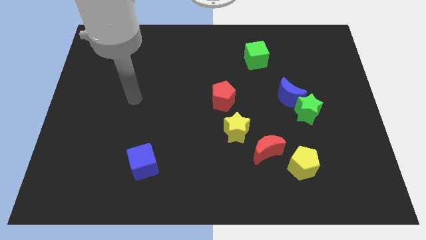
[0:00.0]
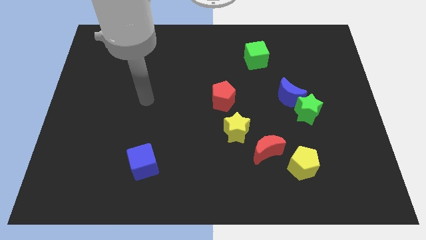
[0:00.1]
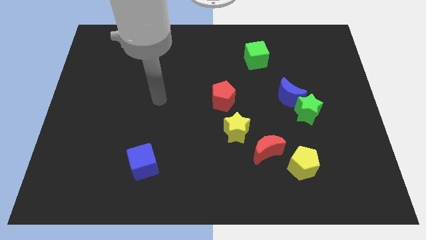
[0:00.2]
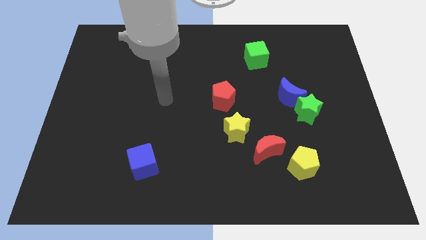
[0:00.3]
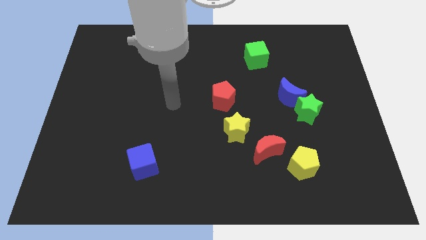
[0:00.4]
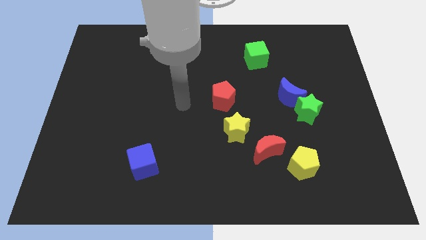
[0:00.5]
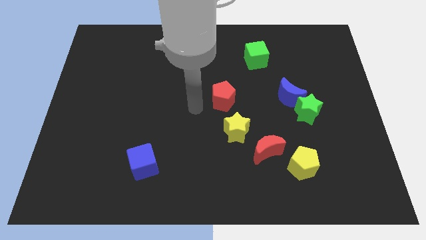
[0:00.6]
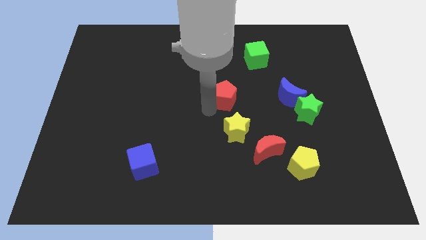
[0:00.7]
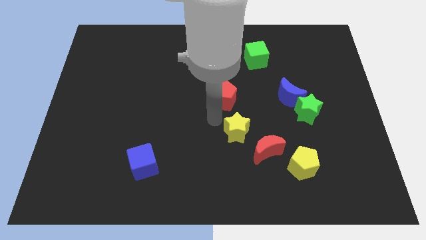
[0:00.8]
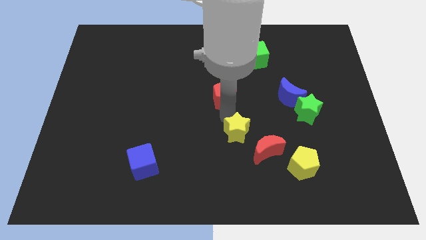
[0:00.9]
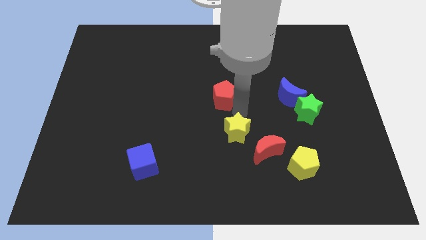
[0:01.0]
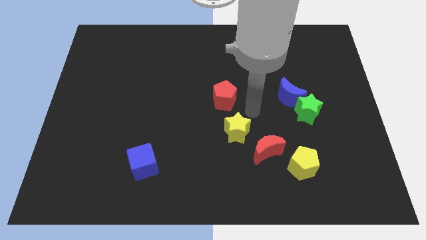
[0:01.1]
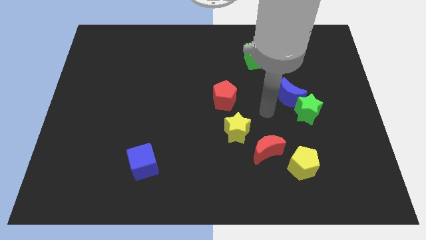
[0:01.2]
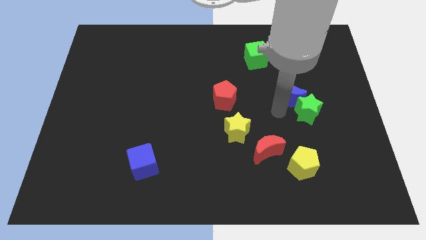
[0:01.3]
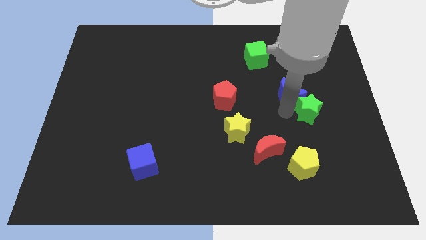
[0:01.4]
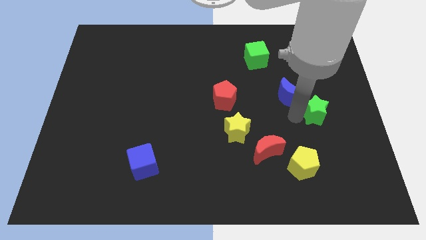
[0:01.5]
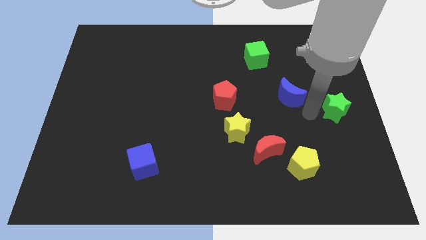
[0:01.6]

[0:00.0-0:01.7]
separate the blue moon from the green star

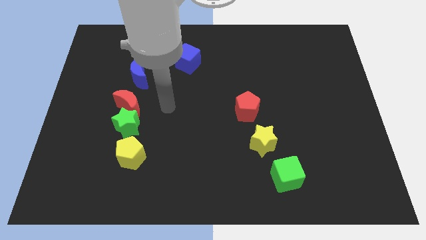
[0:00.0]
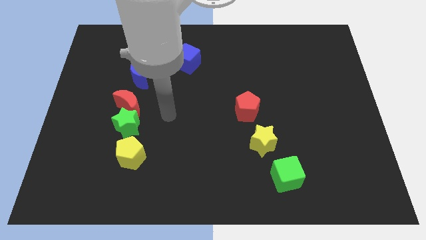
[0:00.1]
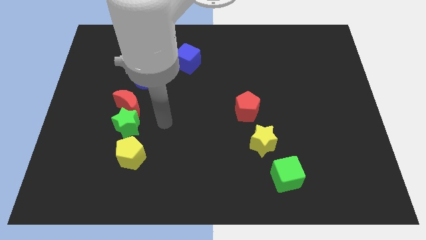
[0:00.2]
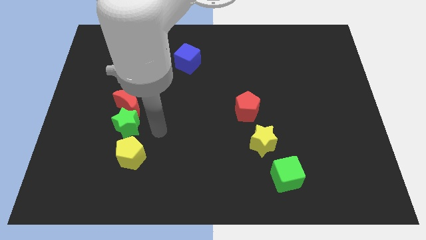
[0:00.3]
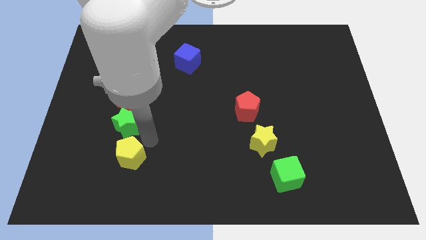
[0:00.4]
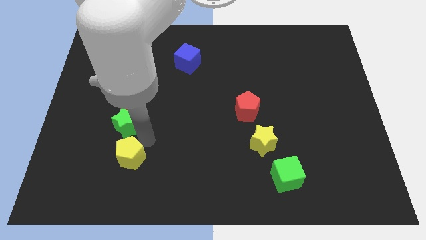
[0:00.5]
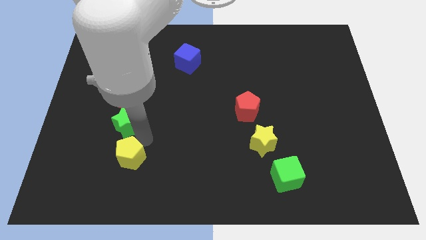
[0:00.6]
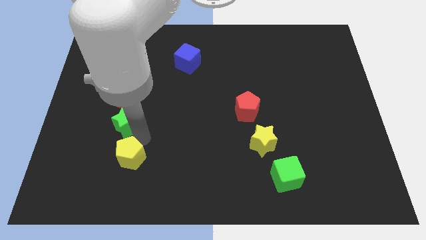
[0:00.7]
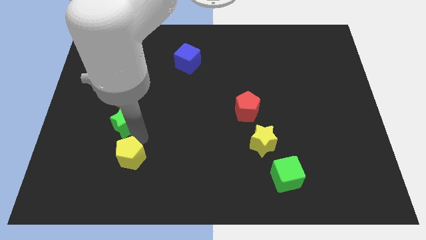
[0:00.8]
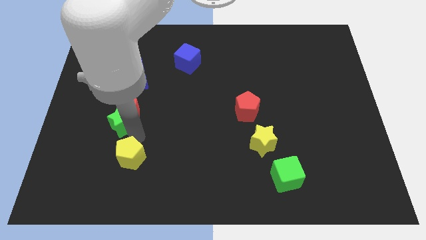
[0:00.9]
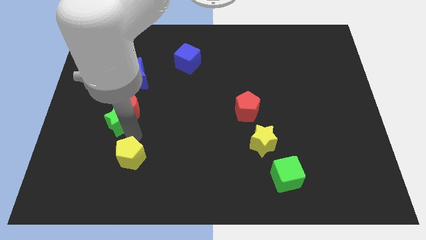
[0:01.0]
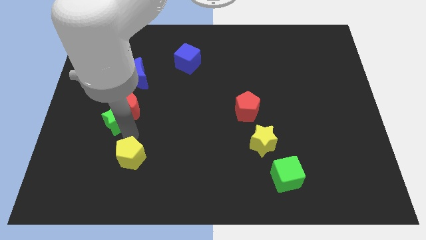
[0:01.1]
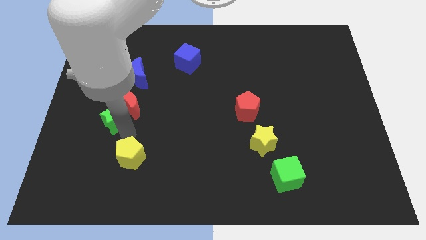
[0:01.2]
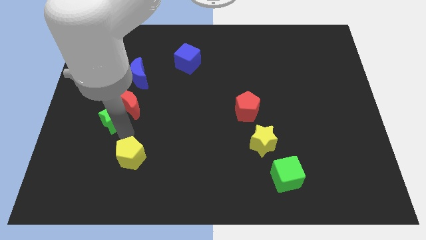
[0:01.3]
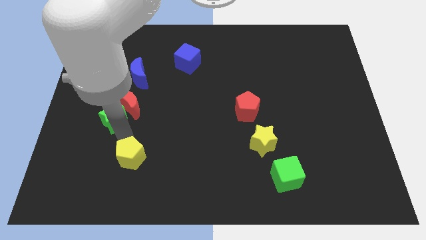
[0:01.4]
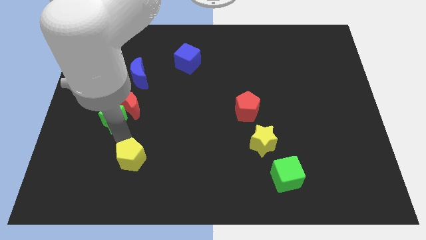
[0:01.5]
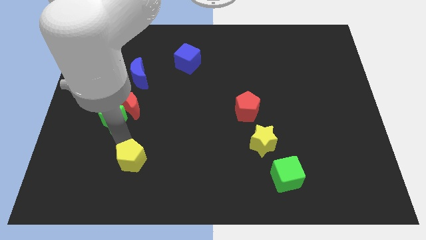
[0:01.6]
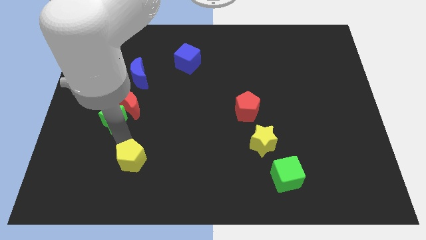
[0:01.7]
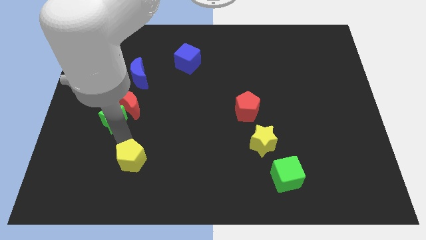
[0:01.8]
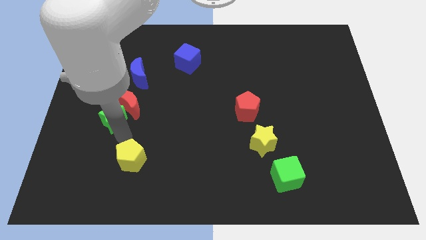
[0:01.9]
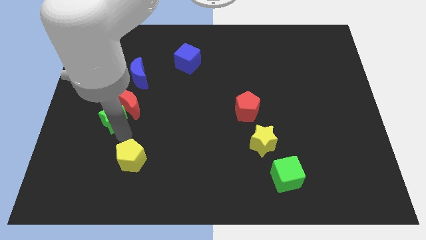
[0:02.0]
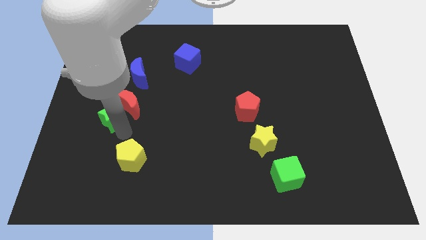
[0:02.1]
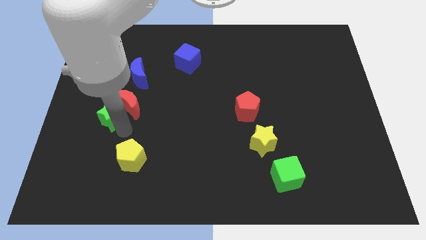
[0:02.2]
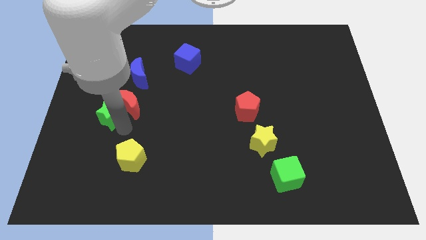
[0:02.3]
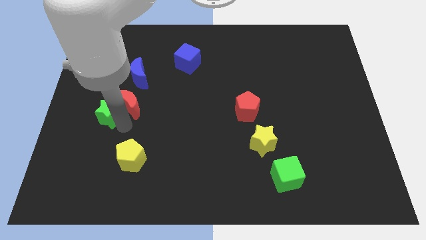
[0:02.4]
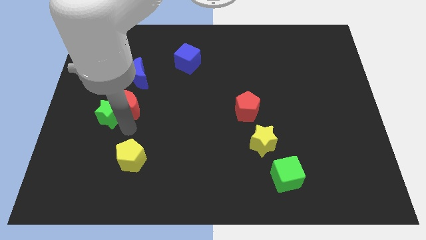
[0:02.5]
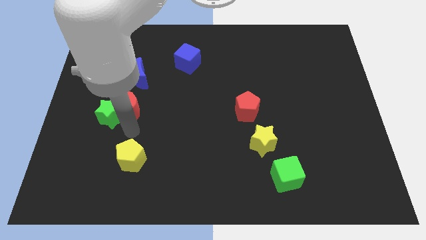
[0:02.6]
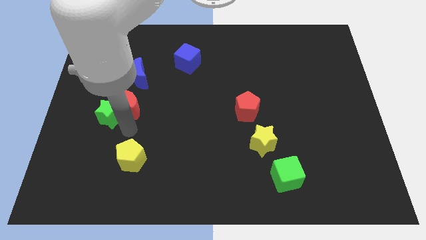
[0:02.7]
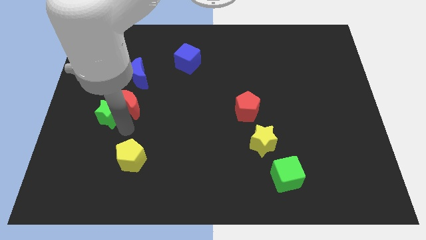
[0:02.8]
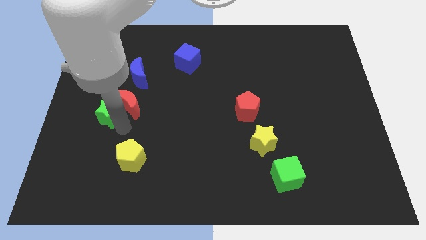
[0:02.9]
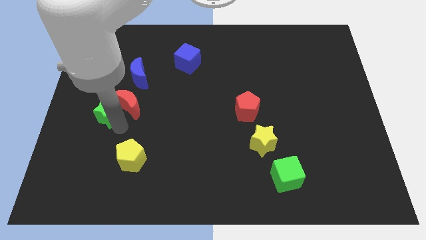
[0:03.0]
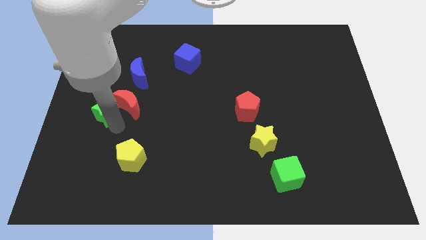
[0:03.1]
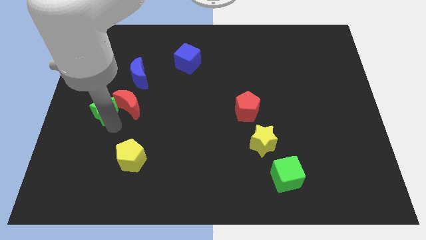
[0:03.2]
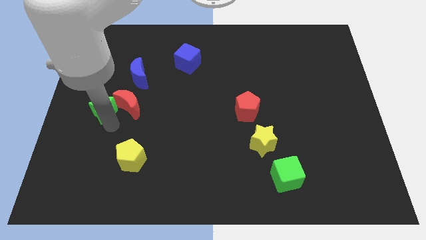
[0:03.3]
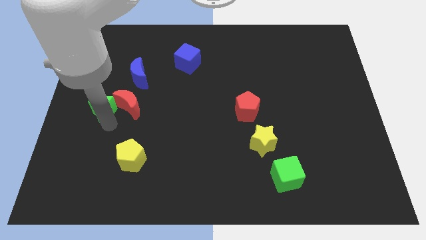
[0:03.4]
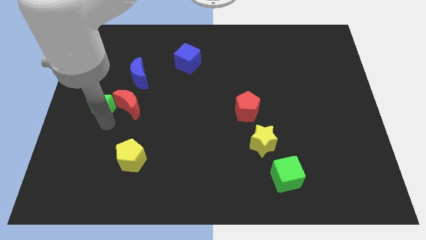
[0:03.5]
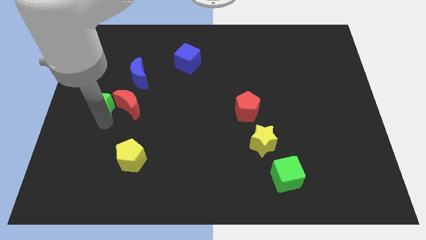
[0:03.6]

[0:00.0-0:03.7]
pull the green star apart from the red moon and yellow pentagon

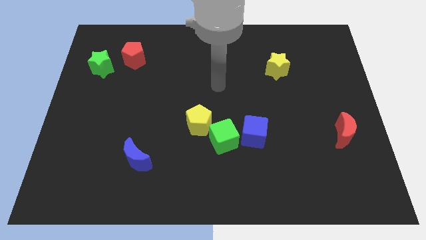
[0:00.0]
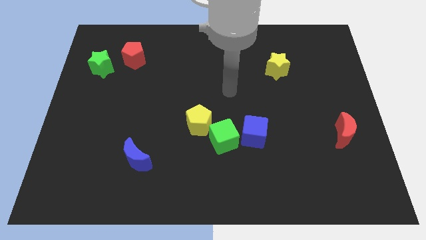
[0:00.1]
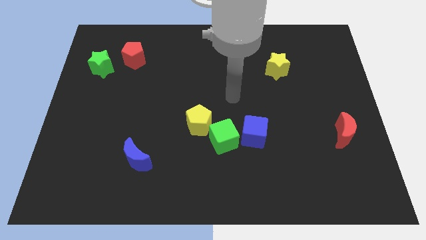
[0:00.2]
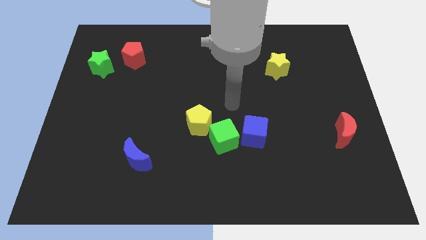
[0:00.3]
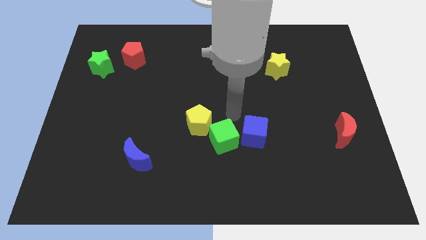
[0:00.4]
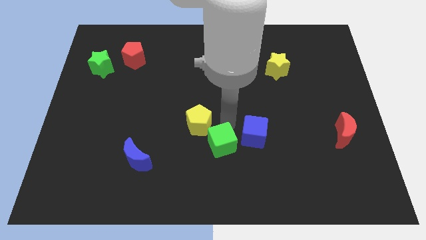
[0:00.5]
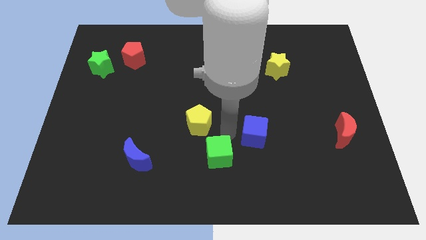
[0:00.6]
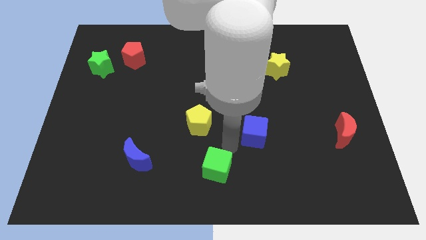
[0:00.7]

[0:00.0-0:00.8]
separate the blue cube from the green cube

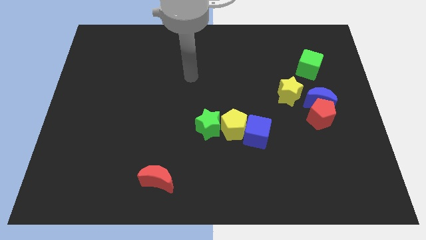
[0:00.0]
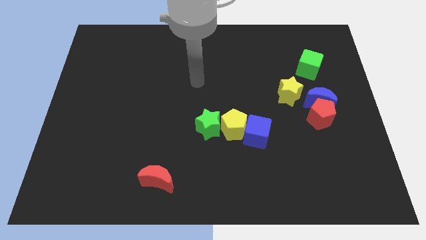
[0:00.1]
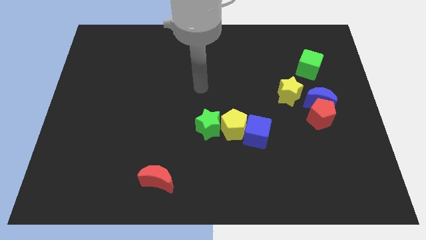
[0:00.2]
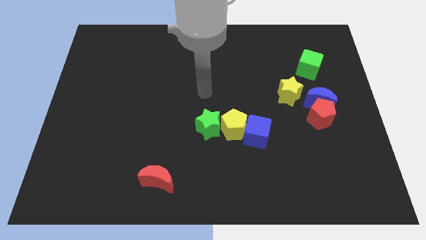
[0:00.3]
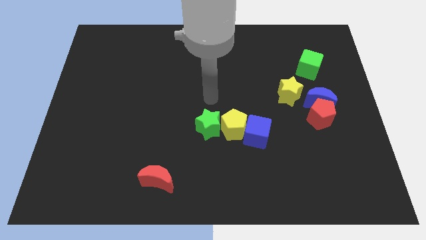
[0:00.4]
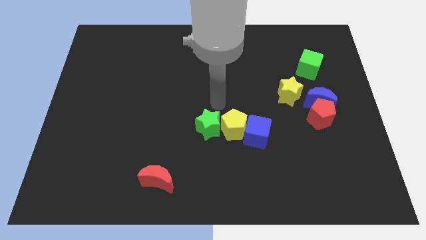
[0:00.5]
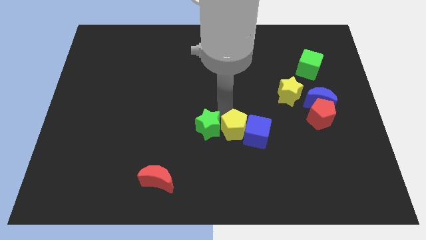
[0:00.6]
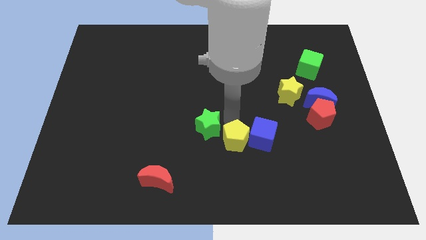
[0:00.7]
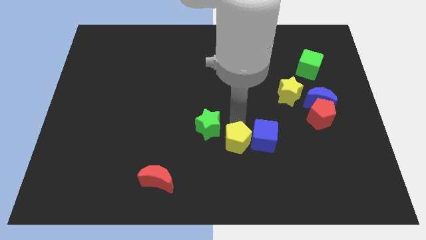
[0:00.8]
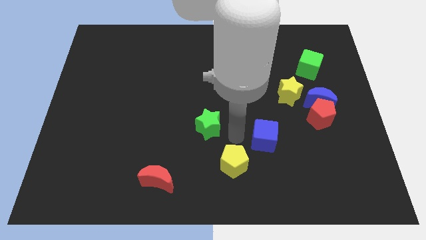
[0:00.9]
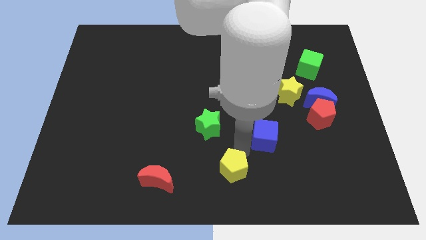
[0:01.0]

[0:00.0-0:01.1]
pull the blue cube apart from the yellow pentagon

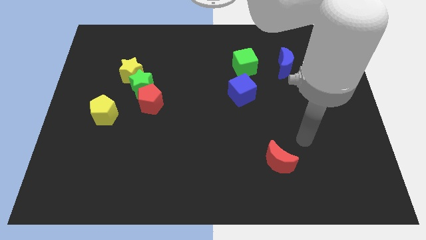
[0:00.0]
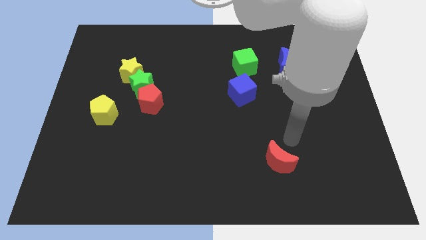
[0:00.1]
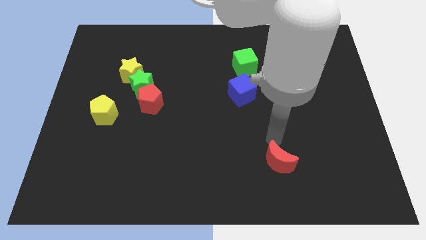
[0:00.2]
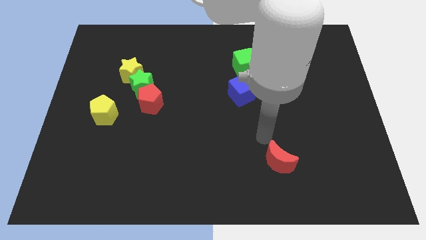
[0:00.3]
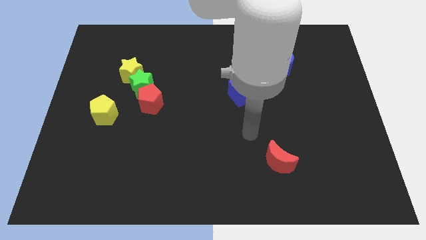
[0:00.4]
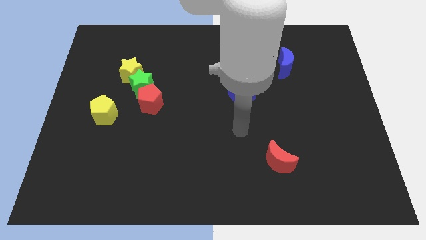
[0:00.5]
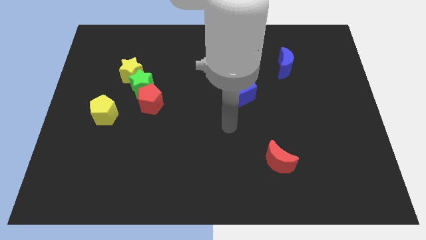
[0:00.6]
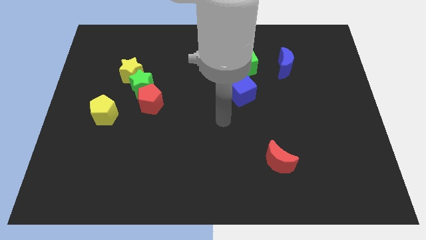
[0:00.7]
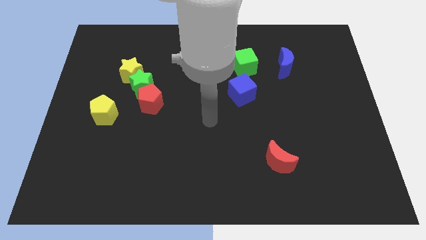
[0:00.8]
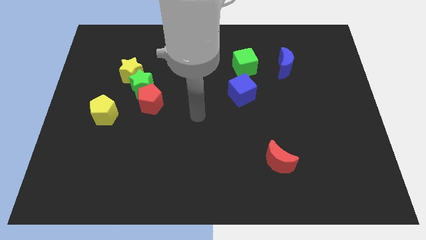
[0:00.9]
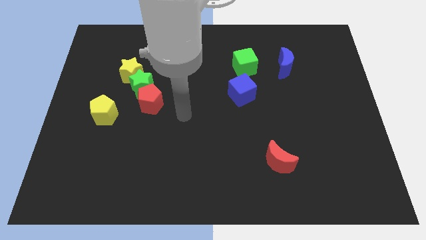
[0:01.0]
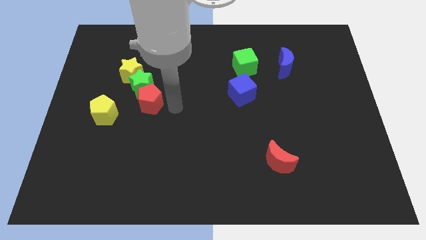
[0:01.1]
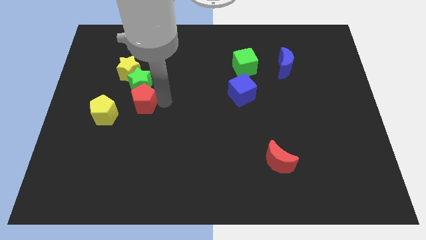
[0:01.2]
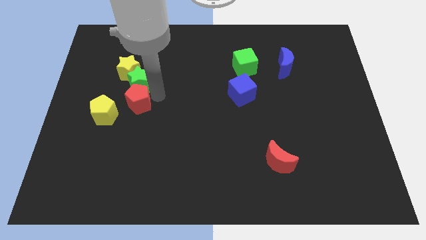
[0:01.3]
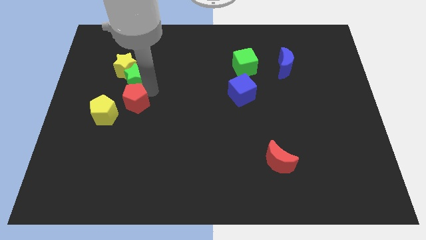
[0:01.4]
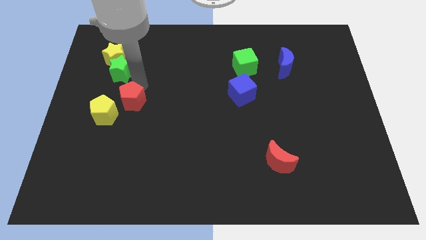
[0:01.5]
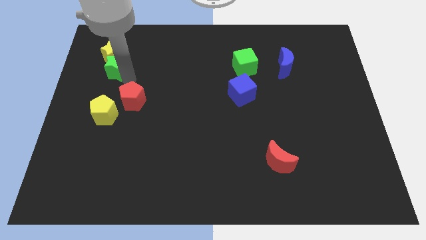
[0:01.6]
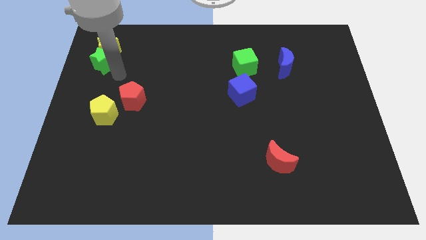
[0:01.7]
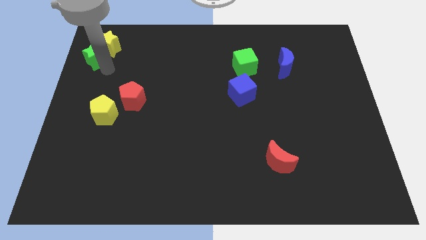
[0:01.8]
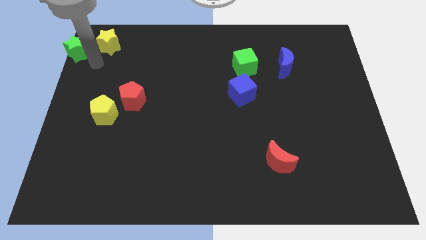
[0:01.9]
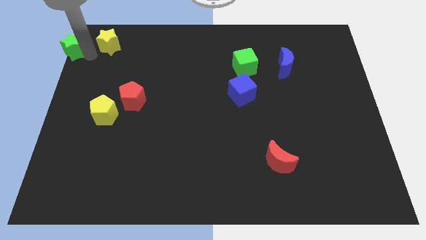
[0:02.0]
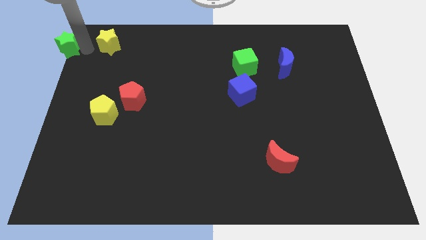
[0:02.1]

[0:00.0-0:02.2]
separate the yellow star from the green star
